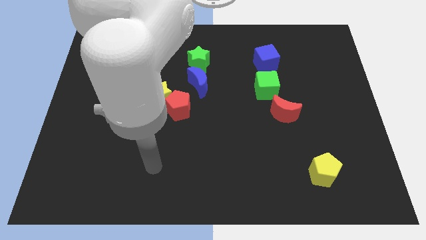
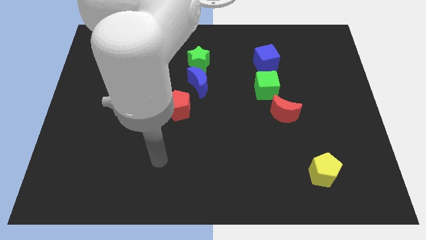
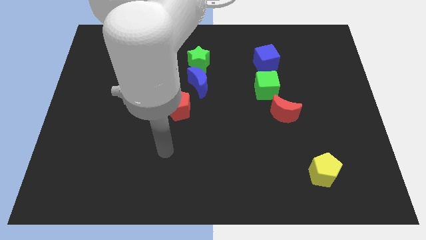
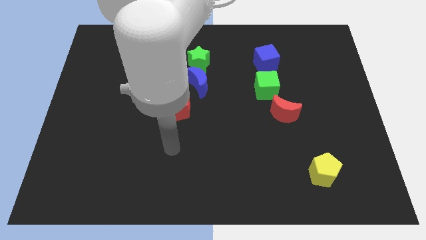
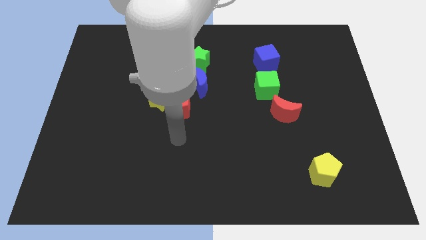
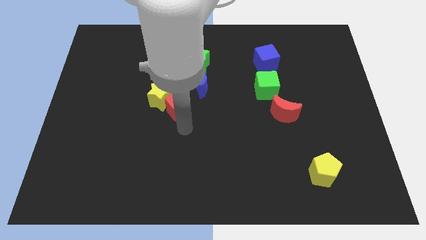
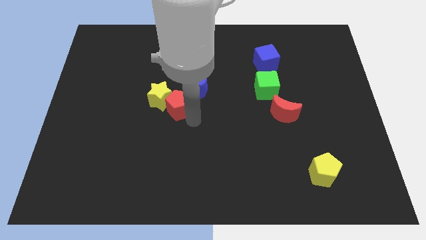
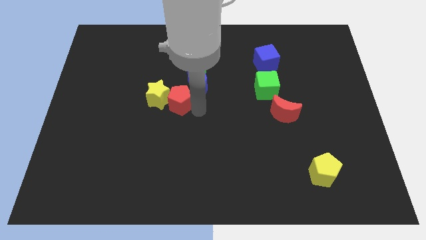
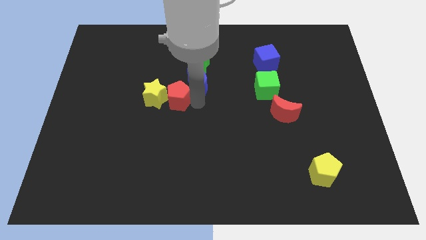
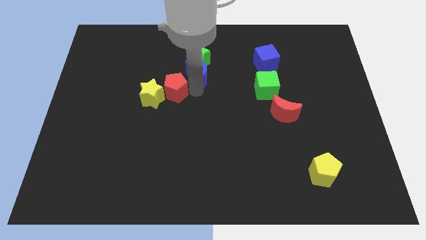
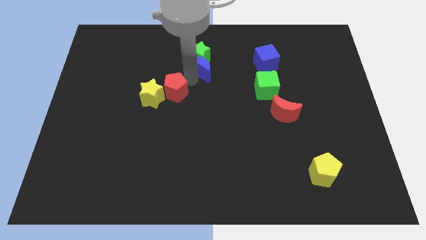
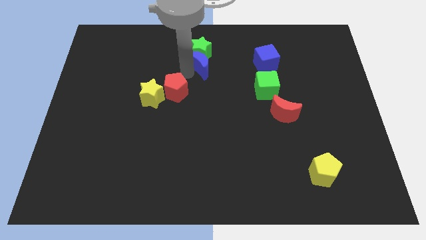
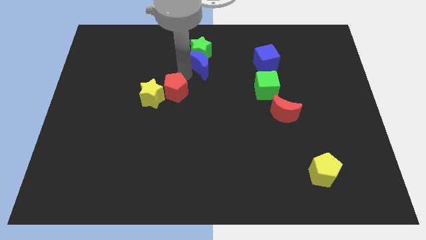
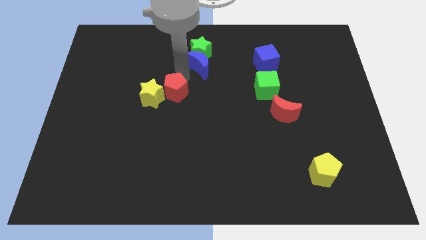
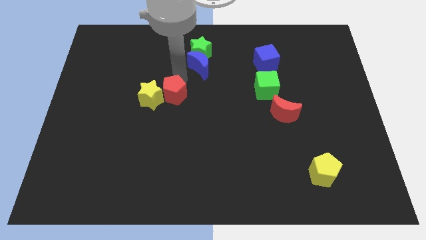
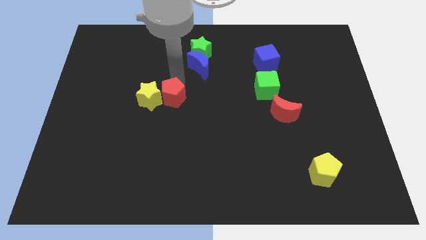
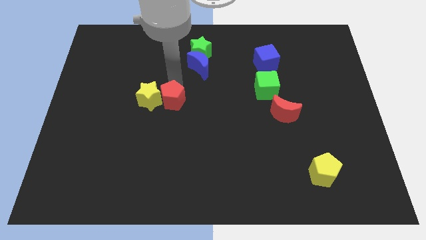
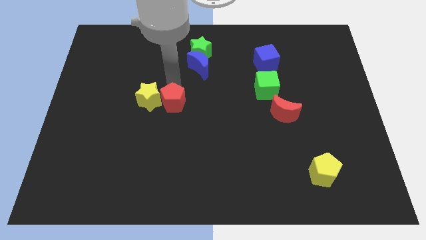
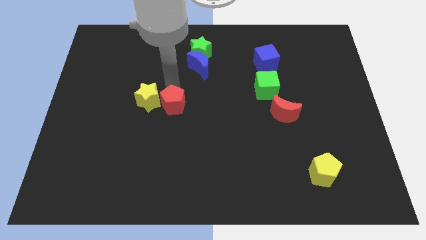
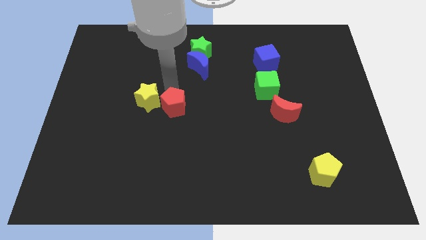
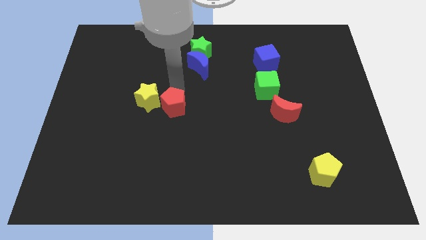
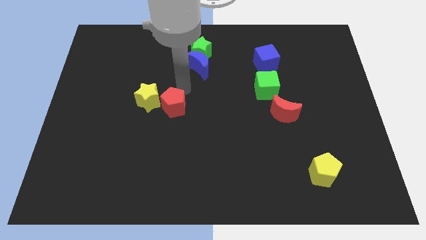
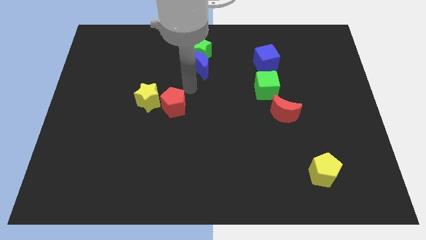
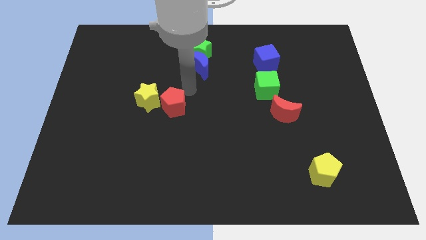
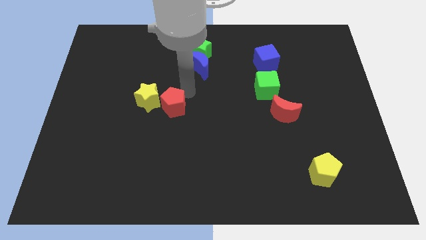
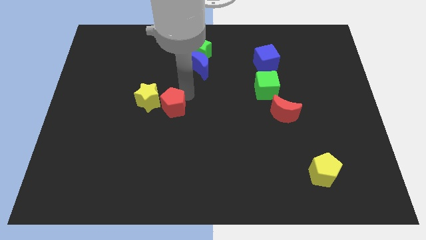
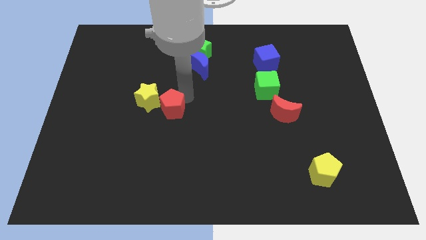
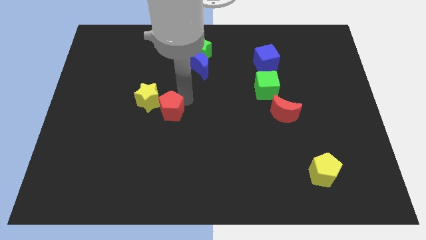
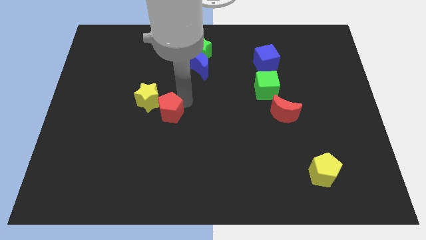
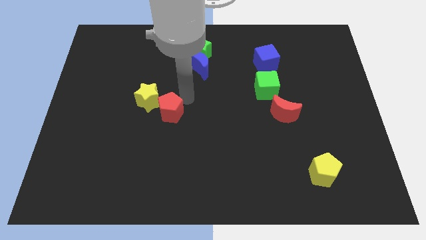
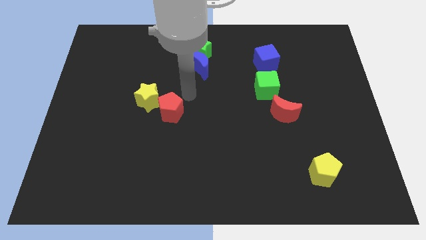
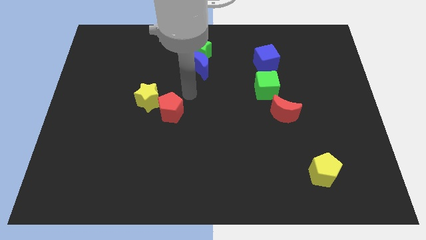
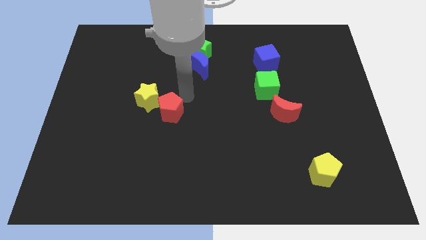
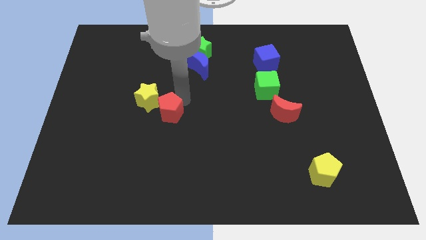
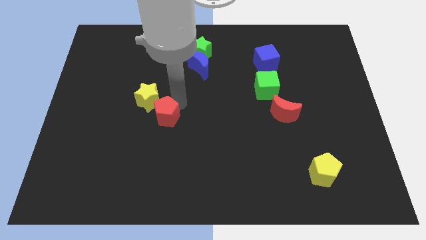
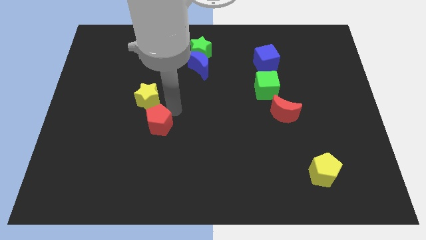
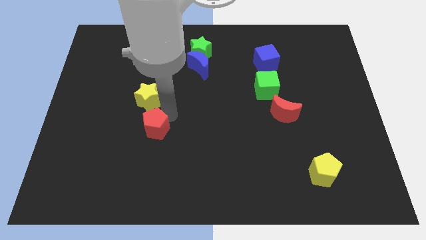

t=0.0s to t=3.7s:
slide the red pentagon a little down and to the left

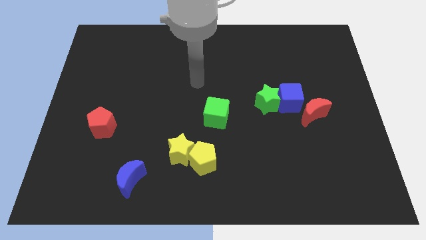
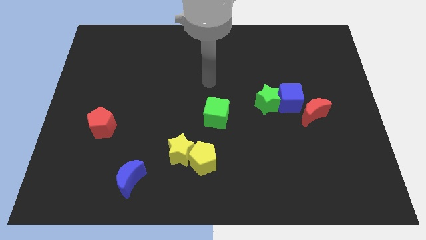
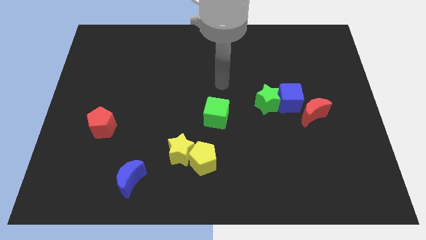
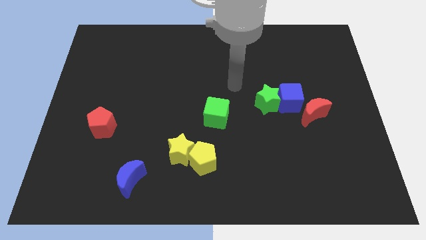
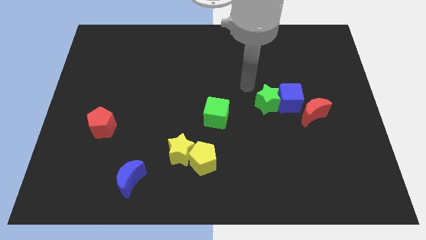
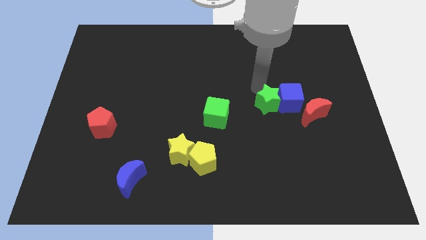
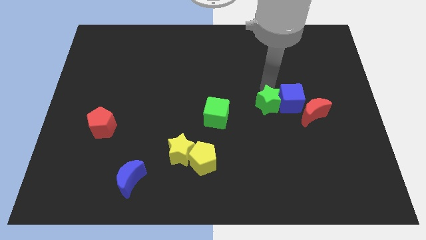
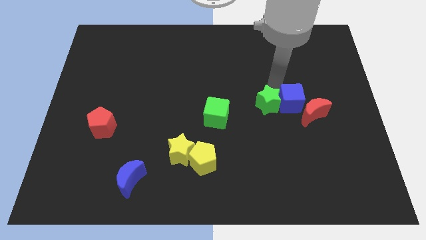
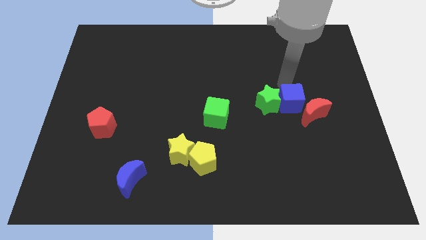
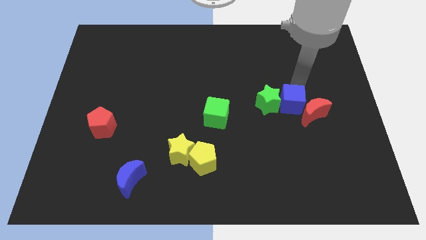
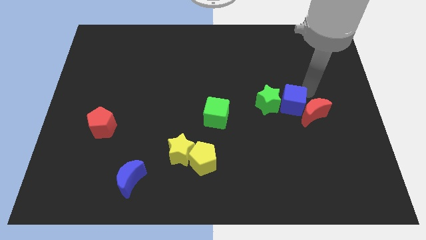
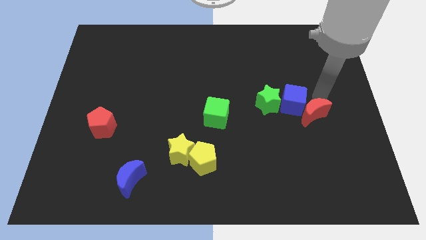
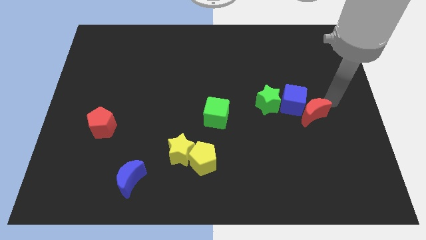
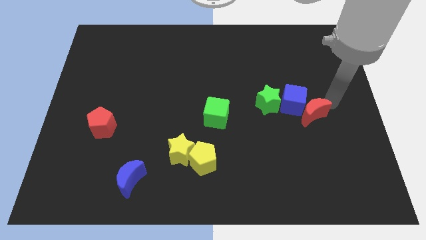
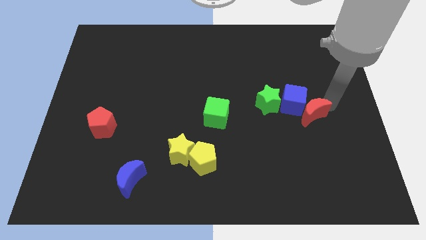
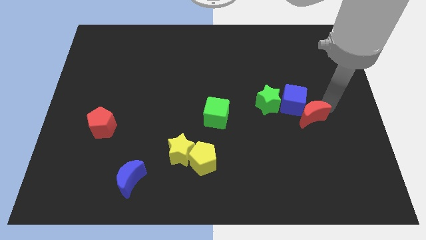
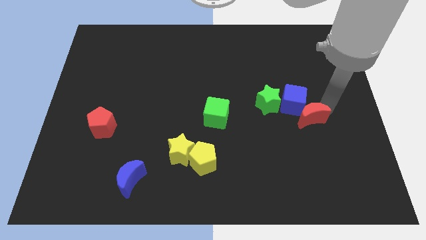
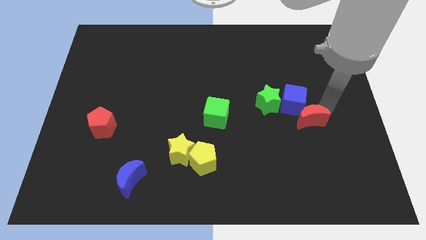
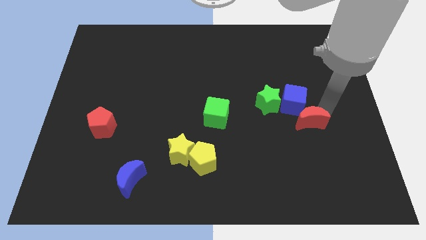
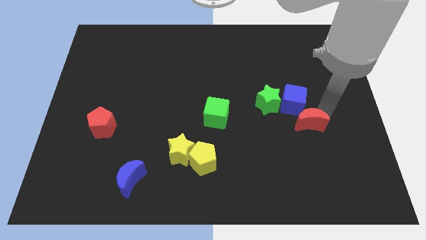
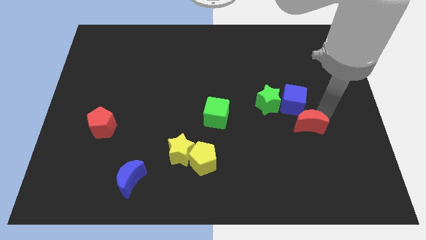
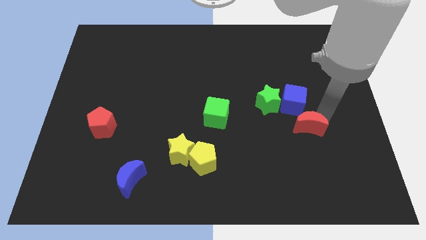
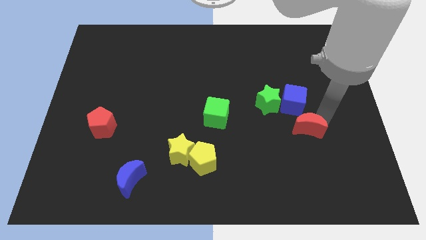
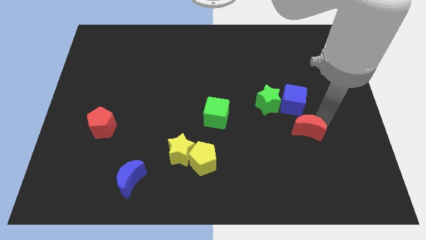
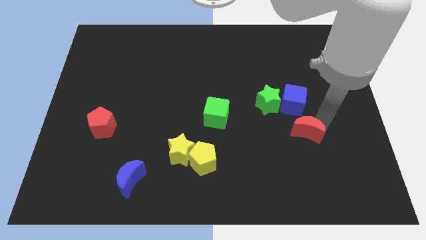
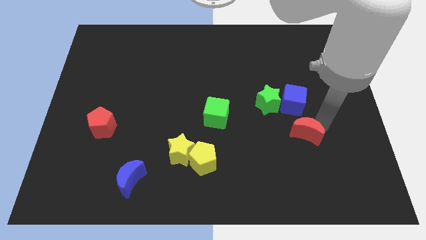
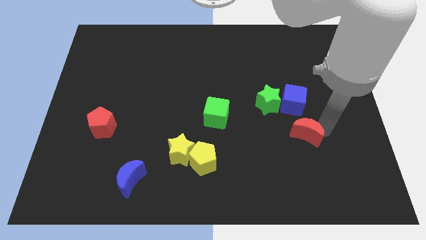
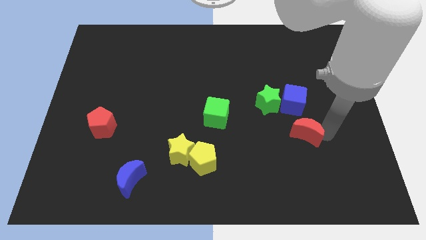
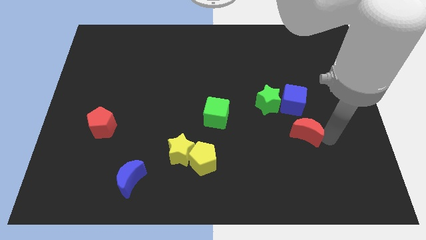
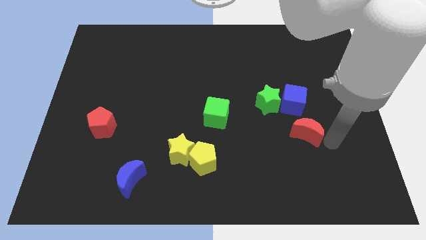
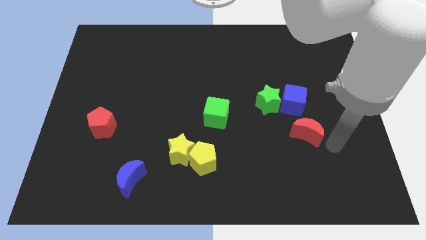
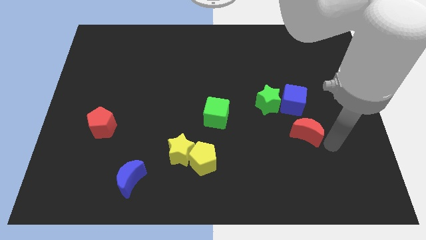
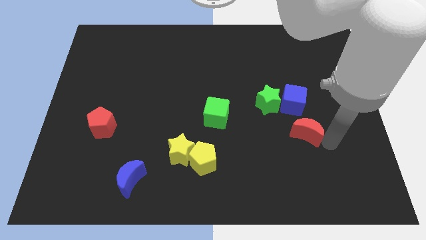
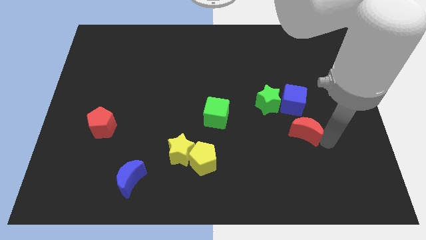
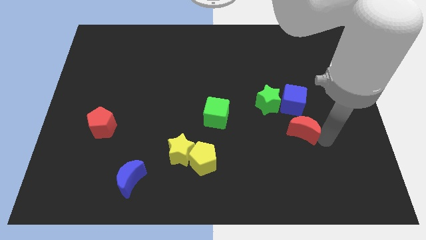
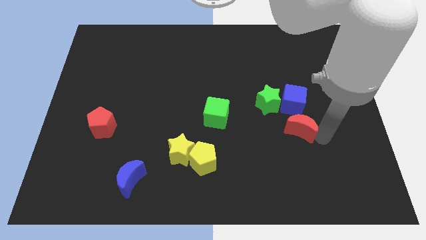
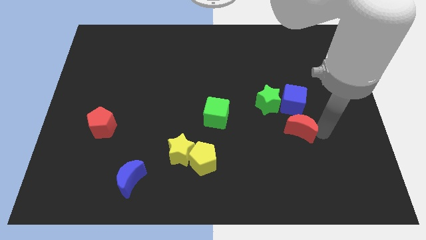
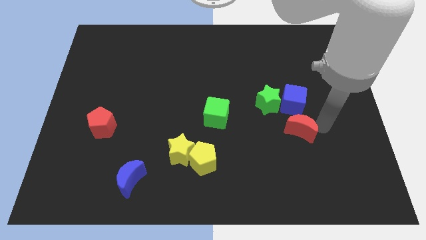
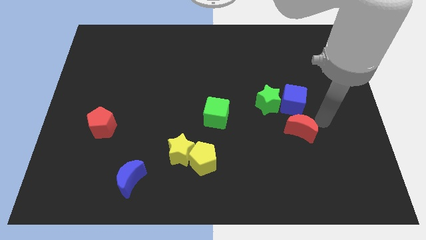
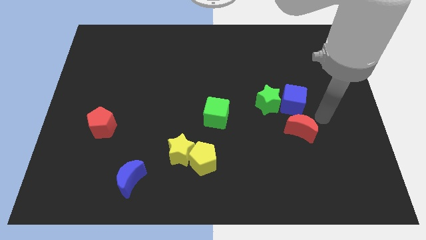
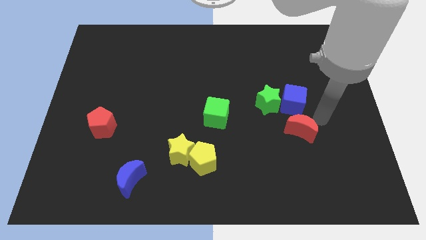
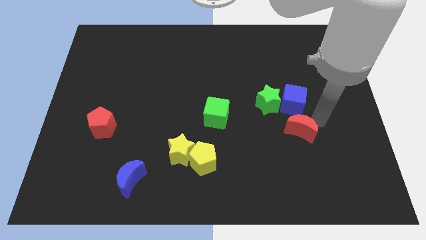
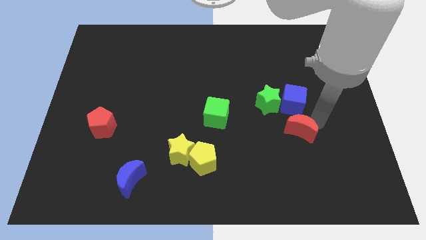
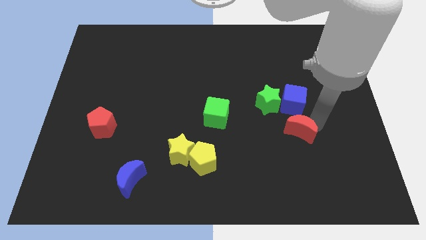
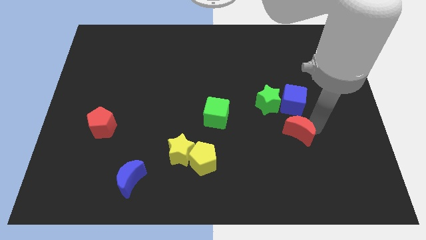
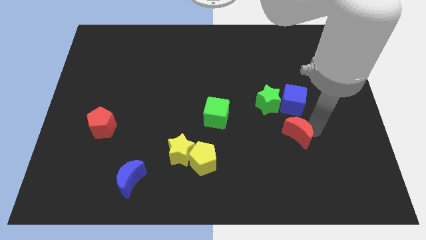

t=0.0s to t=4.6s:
move the red moon a little bit downwards and then left
